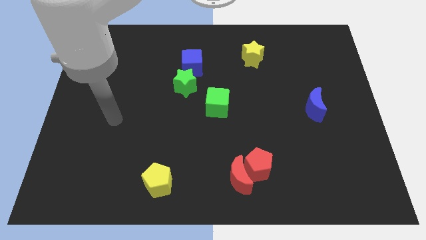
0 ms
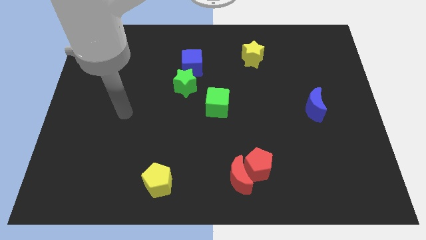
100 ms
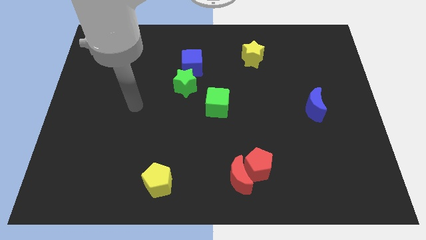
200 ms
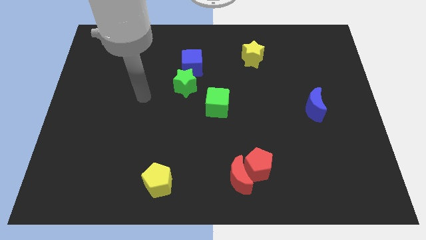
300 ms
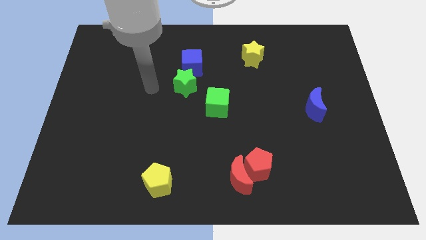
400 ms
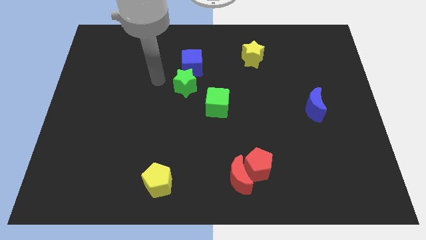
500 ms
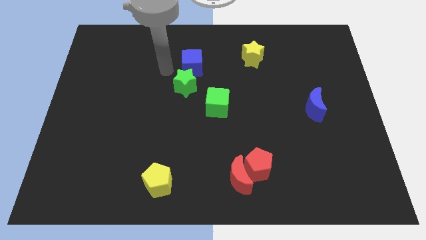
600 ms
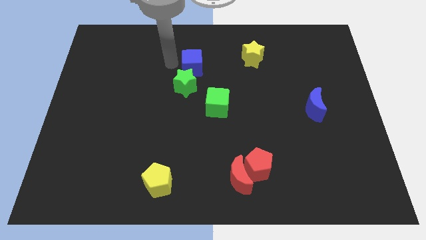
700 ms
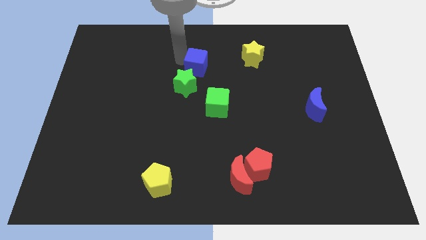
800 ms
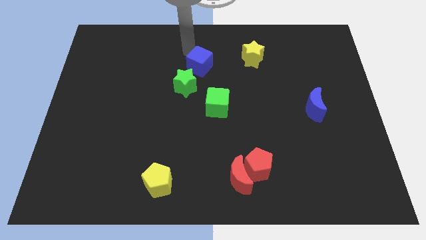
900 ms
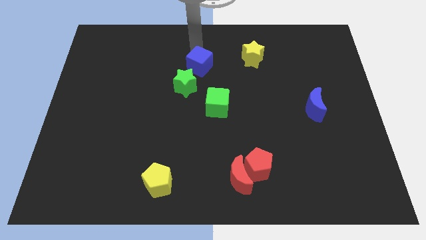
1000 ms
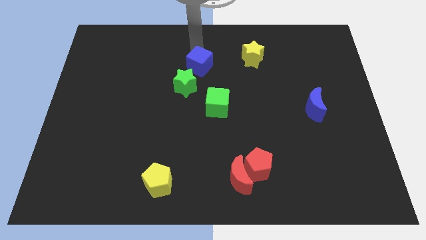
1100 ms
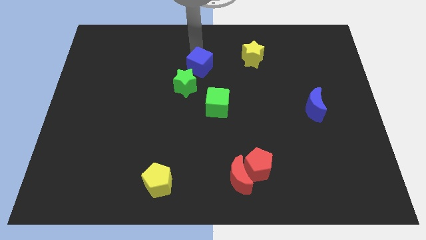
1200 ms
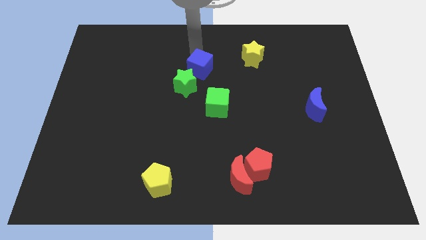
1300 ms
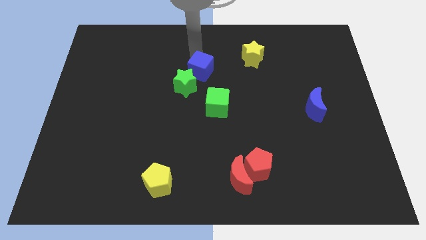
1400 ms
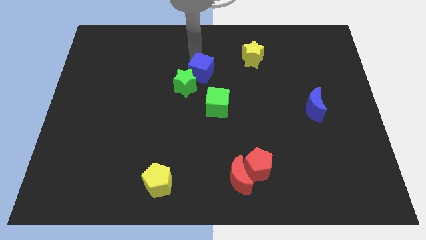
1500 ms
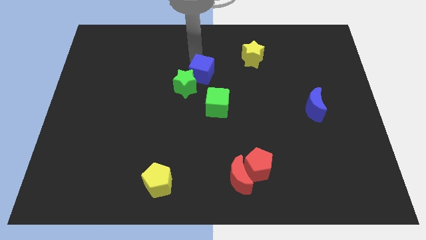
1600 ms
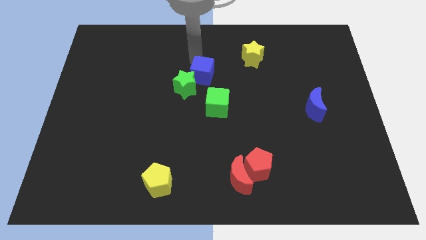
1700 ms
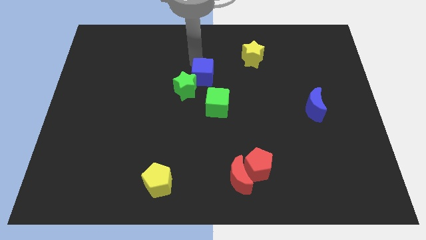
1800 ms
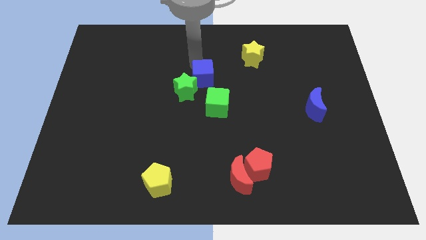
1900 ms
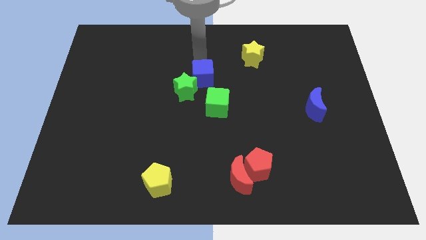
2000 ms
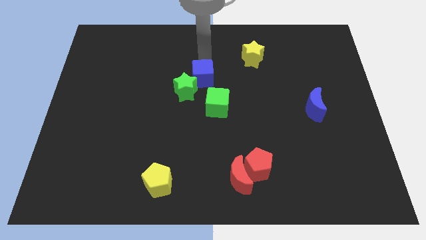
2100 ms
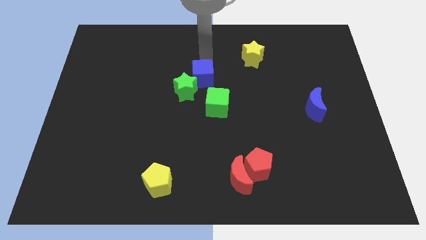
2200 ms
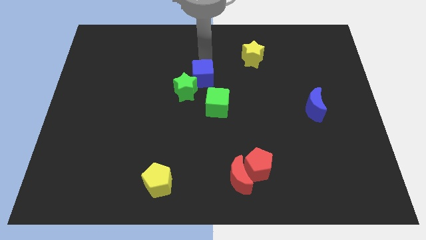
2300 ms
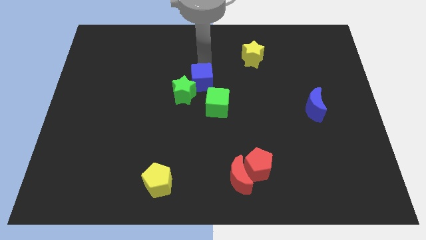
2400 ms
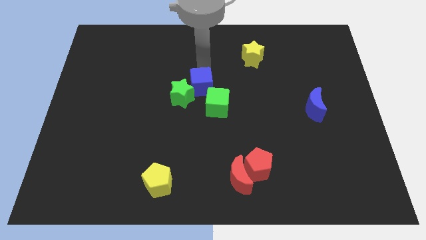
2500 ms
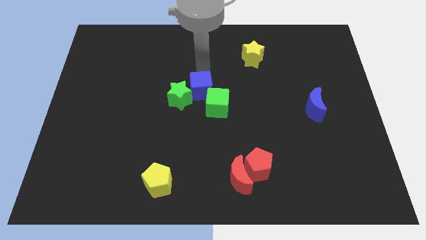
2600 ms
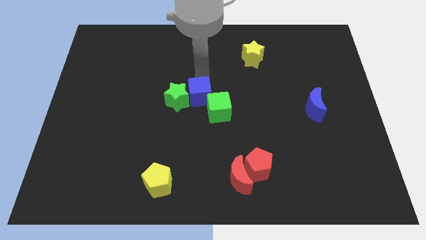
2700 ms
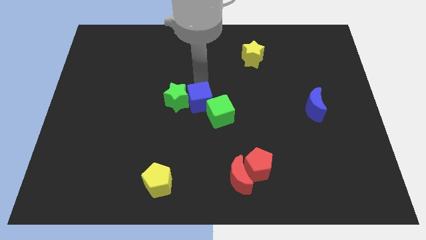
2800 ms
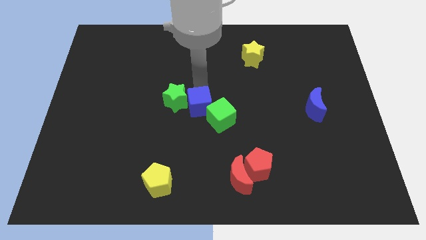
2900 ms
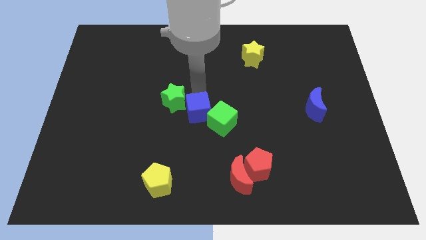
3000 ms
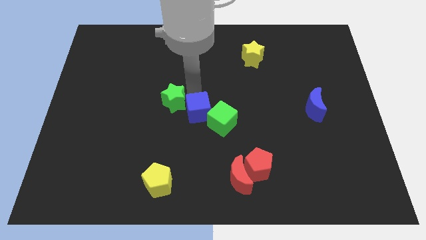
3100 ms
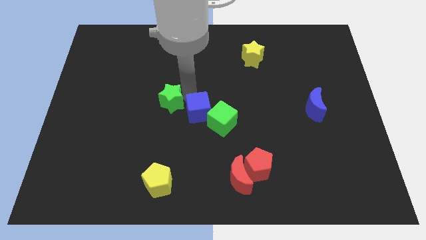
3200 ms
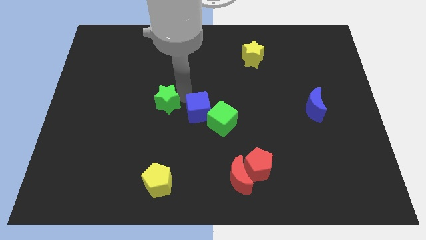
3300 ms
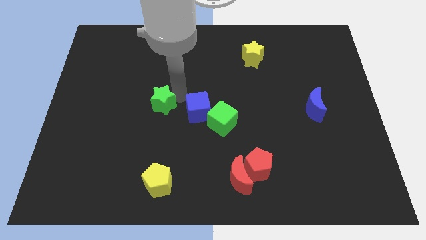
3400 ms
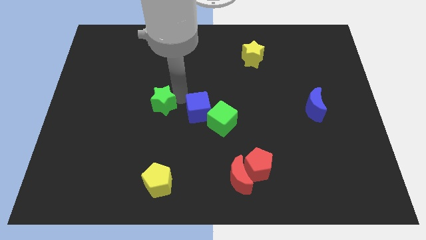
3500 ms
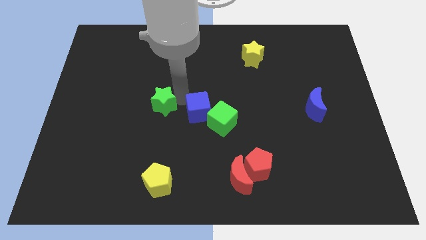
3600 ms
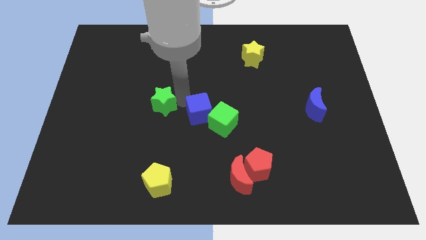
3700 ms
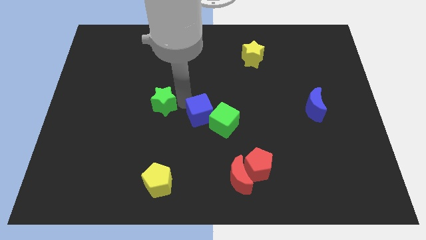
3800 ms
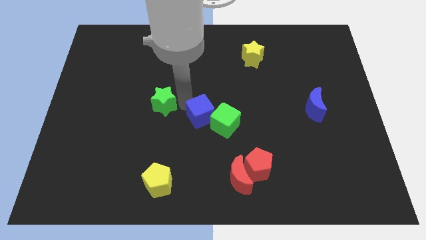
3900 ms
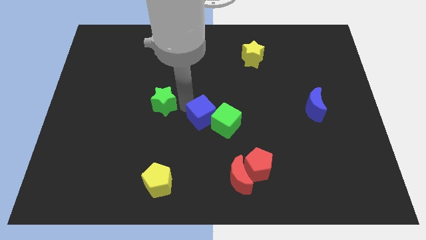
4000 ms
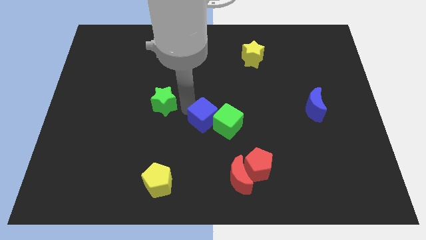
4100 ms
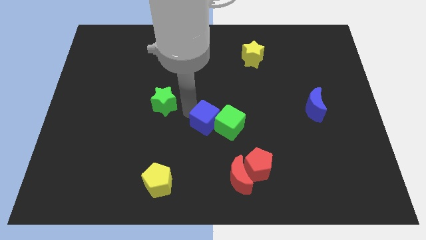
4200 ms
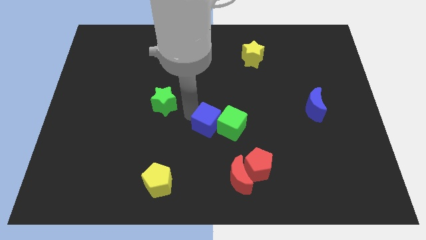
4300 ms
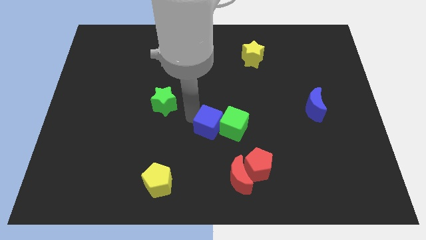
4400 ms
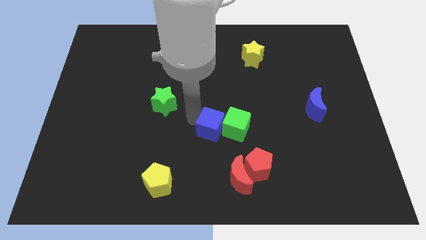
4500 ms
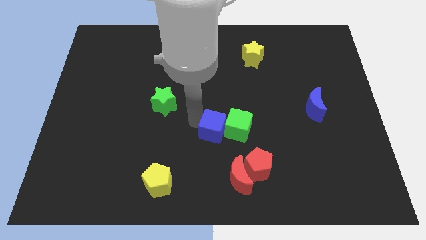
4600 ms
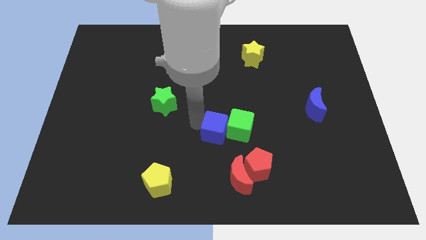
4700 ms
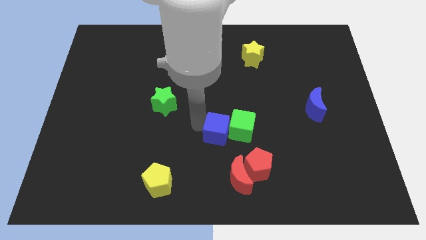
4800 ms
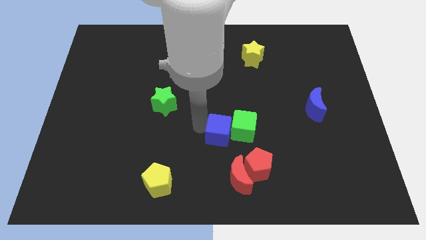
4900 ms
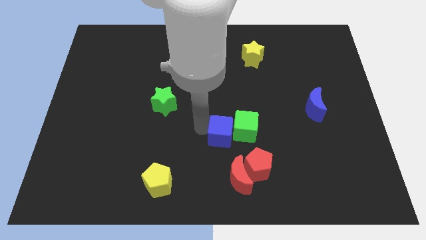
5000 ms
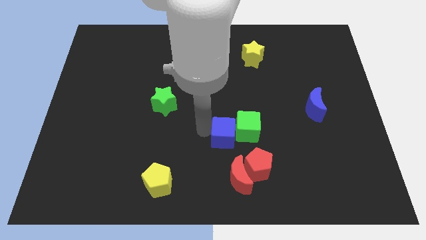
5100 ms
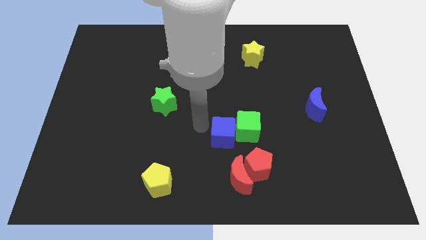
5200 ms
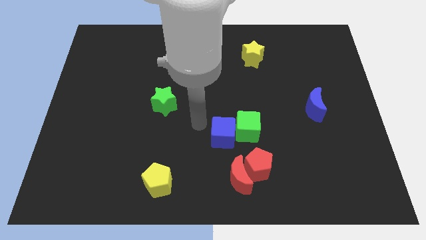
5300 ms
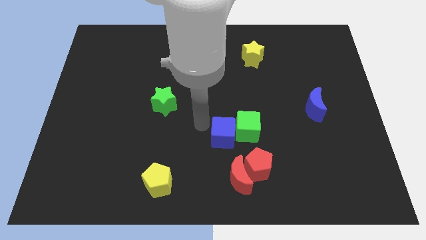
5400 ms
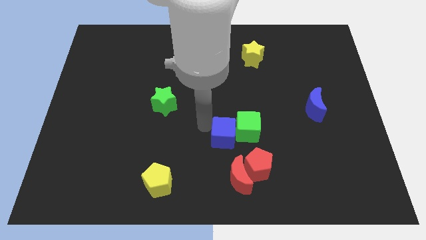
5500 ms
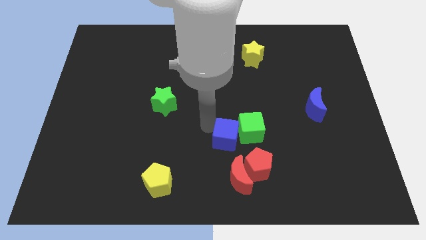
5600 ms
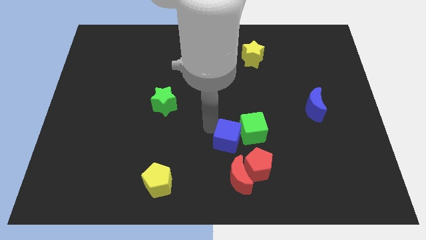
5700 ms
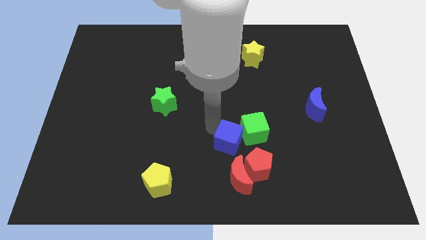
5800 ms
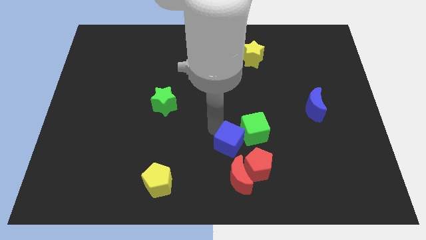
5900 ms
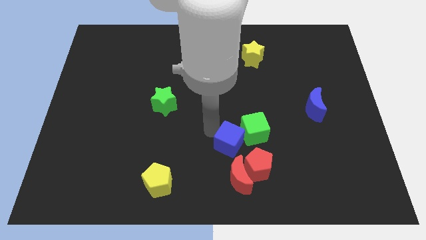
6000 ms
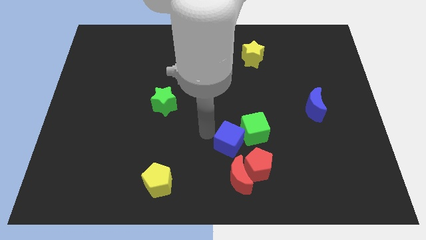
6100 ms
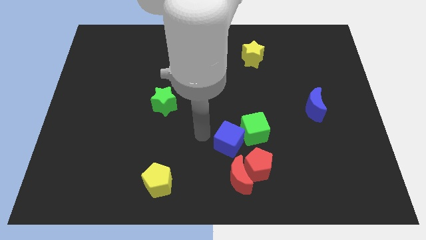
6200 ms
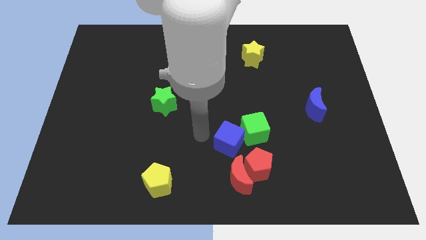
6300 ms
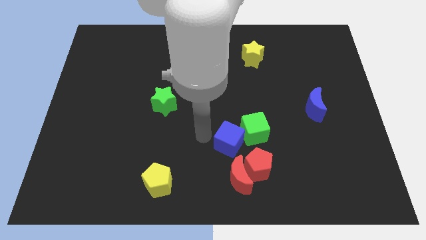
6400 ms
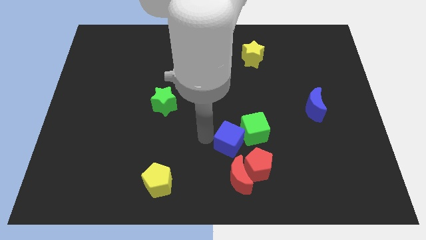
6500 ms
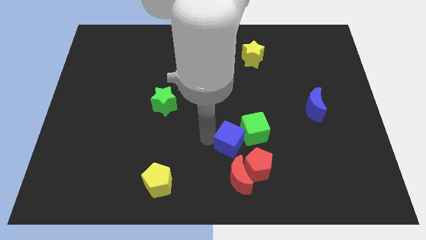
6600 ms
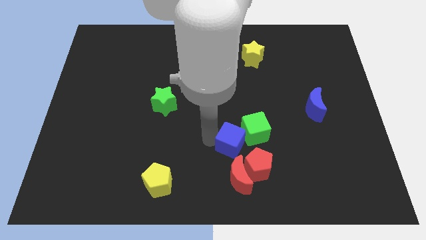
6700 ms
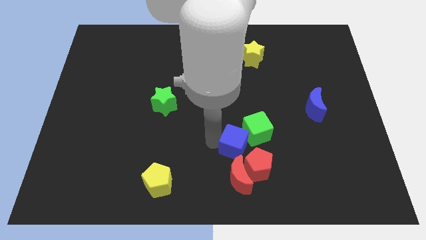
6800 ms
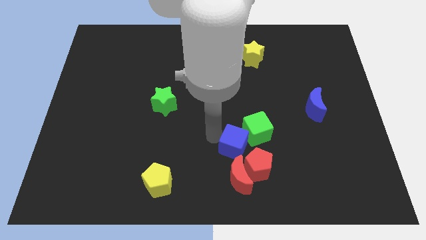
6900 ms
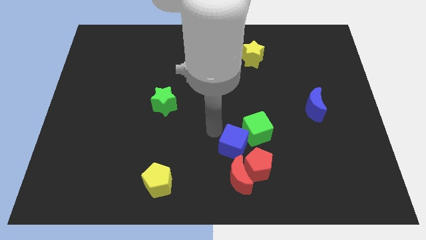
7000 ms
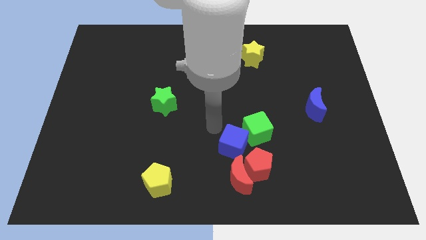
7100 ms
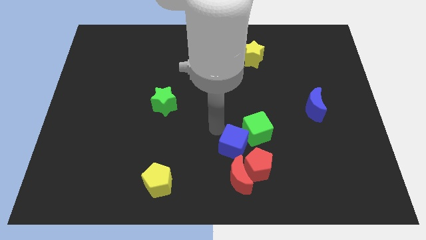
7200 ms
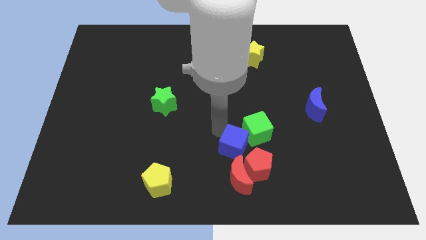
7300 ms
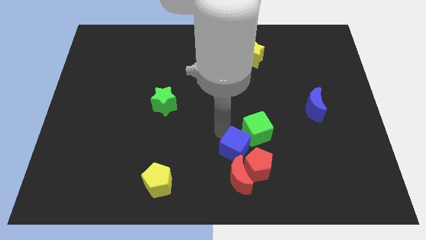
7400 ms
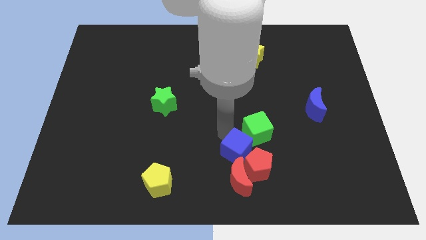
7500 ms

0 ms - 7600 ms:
slide the blue cube to the red pentagon
